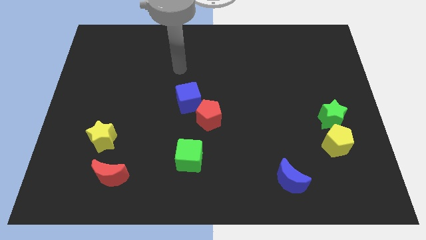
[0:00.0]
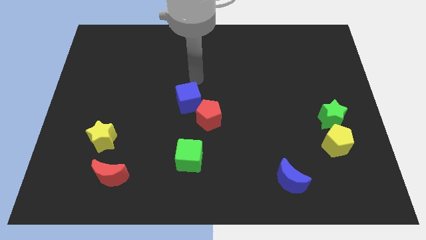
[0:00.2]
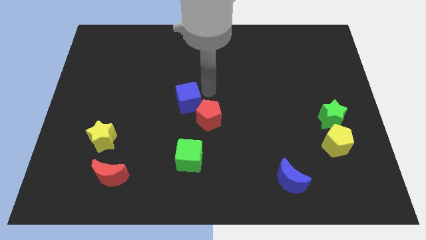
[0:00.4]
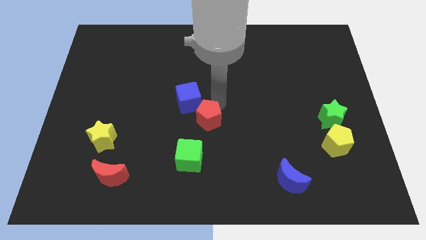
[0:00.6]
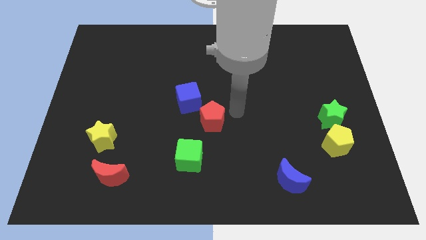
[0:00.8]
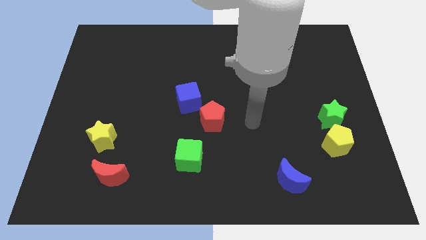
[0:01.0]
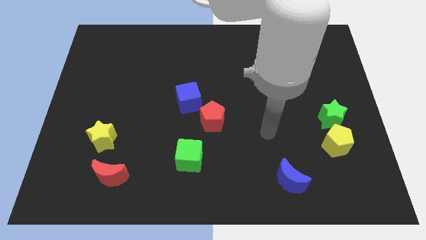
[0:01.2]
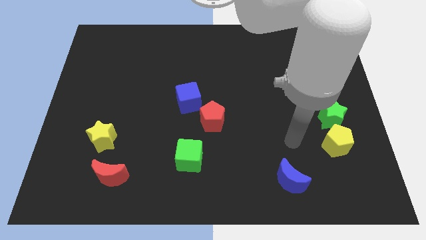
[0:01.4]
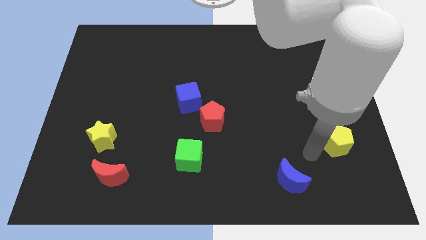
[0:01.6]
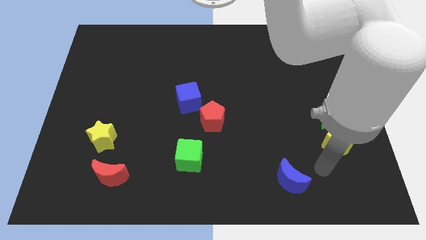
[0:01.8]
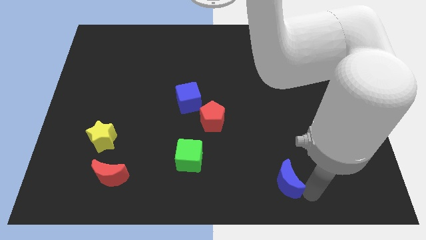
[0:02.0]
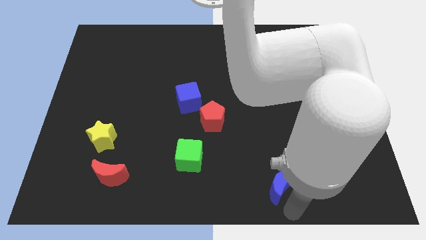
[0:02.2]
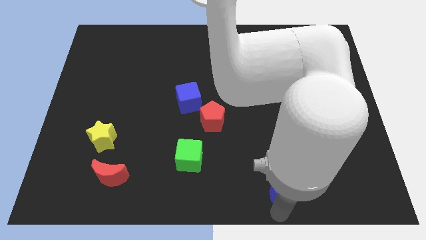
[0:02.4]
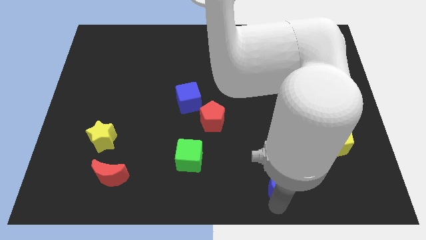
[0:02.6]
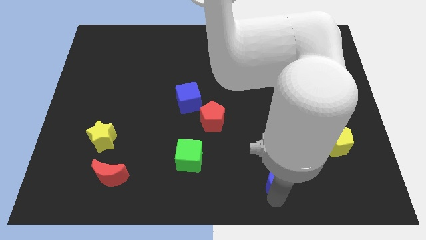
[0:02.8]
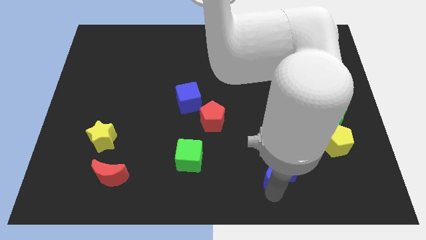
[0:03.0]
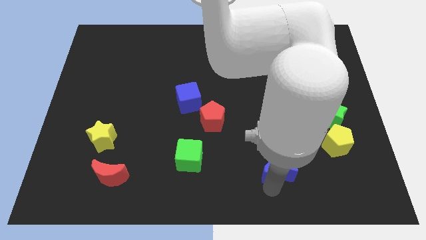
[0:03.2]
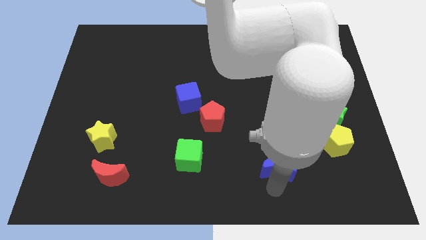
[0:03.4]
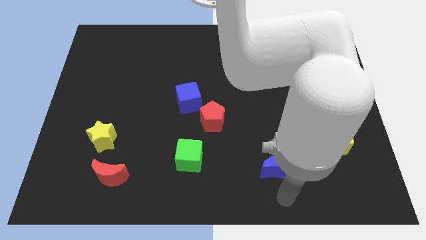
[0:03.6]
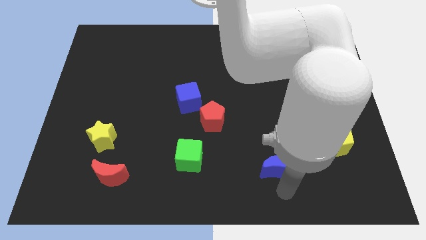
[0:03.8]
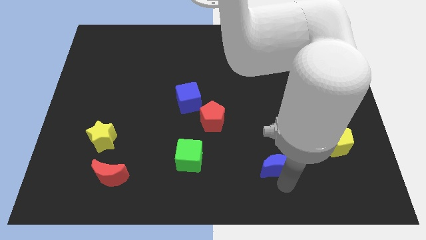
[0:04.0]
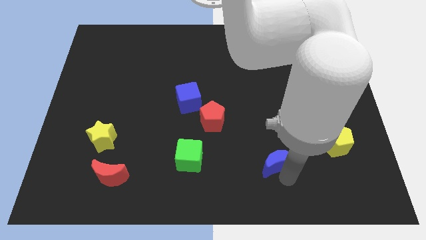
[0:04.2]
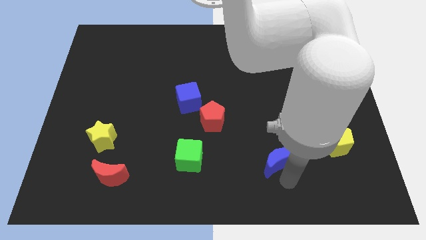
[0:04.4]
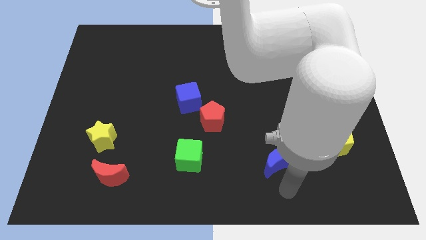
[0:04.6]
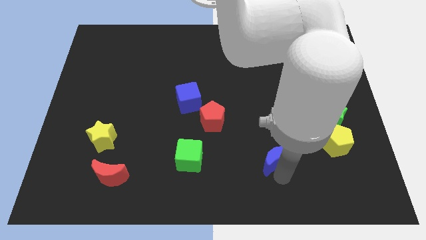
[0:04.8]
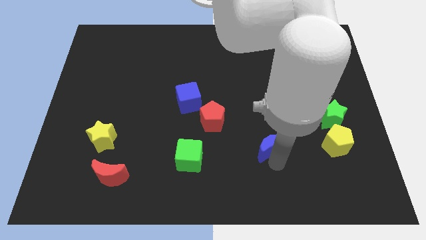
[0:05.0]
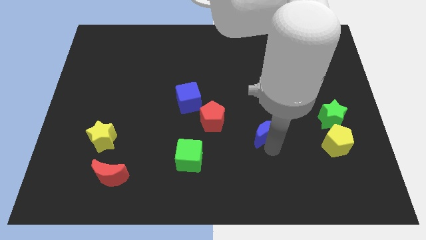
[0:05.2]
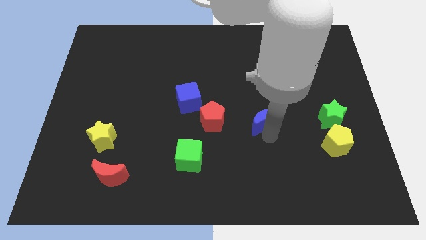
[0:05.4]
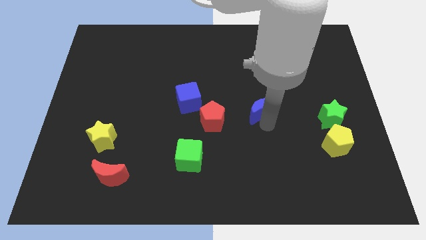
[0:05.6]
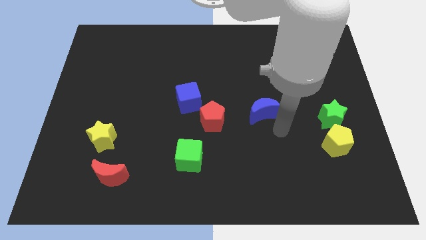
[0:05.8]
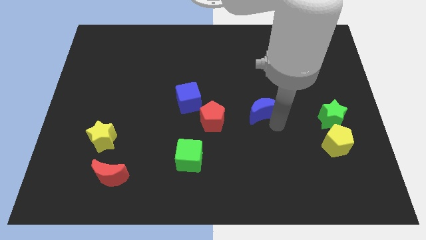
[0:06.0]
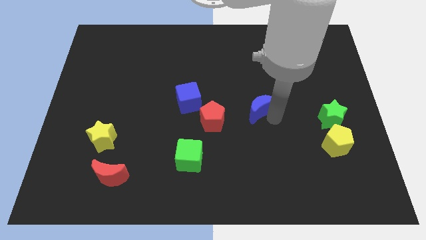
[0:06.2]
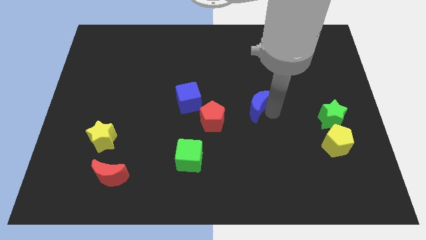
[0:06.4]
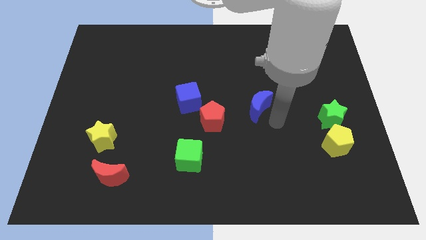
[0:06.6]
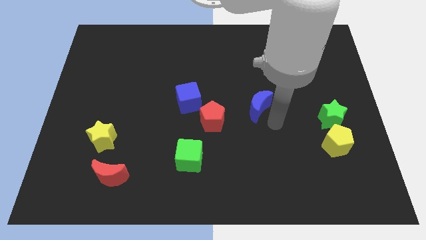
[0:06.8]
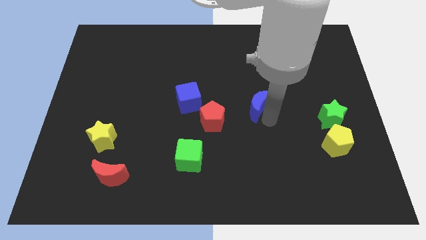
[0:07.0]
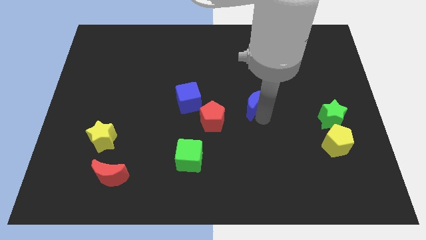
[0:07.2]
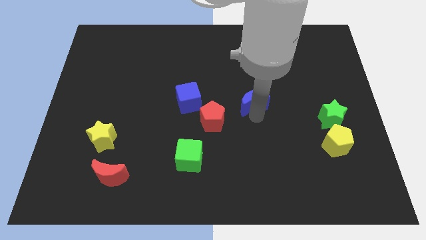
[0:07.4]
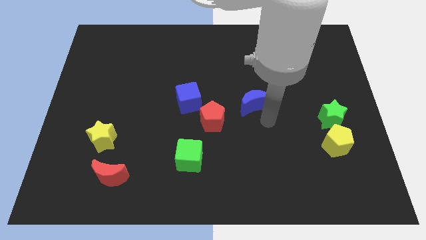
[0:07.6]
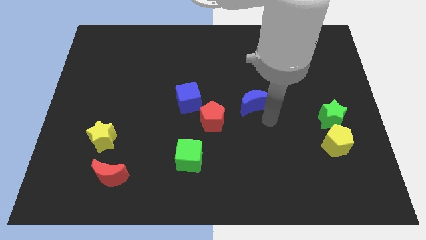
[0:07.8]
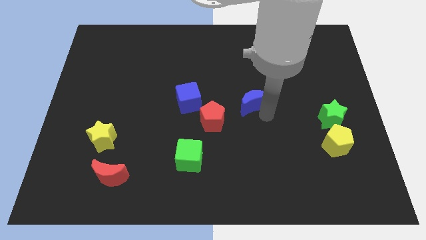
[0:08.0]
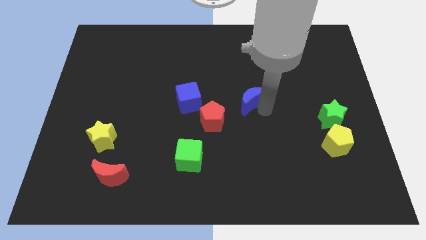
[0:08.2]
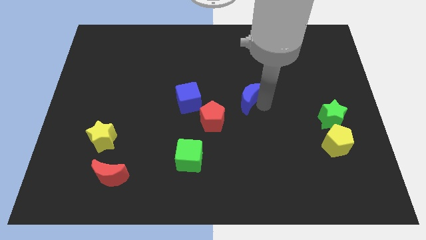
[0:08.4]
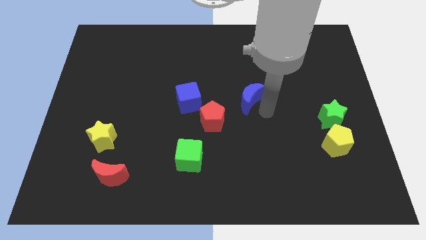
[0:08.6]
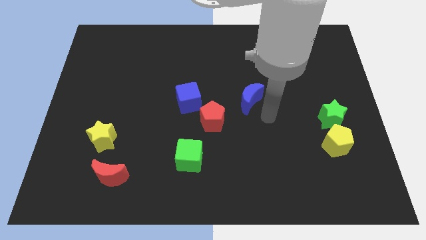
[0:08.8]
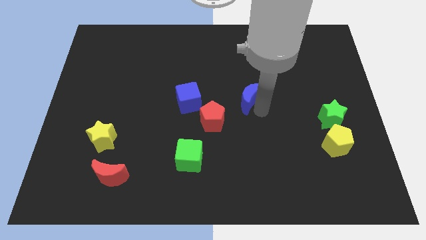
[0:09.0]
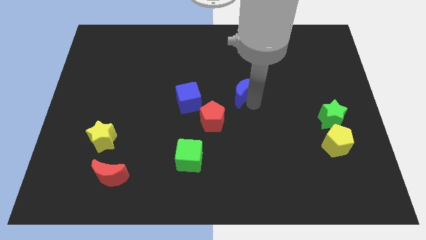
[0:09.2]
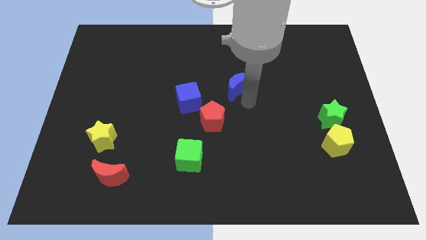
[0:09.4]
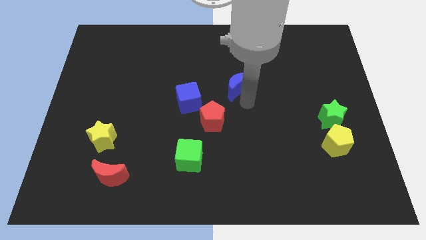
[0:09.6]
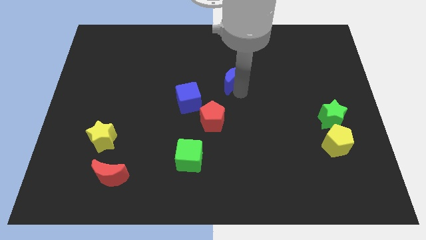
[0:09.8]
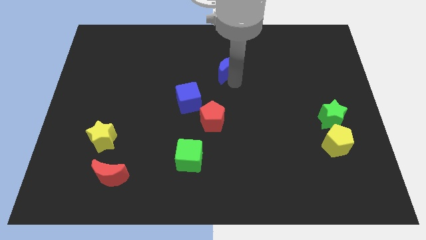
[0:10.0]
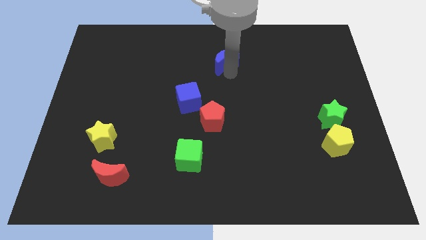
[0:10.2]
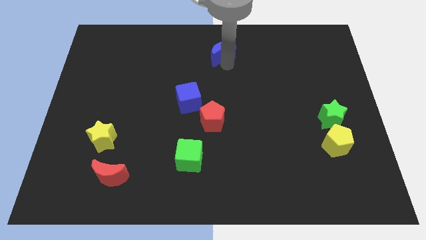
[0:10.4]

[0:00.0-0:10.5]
slide the blue moon to the towards your base
